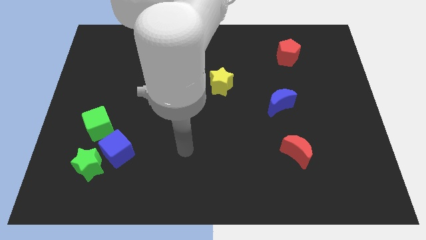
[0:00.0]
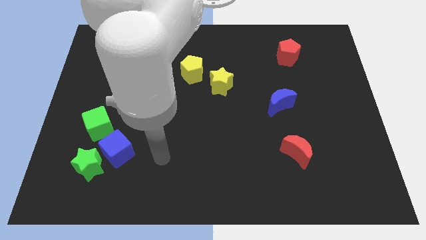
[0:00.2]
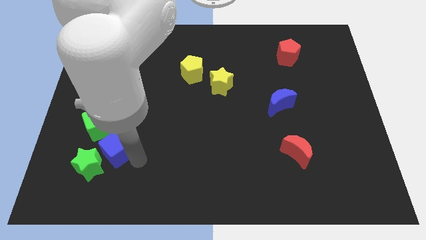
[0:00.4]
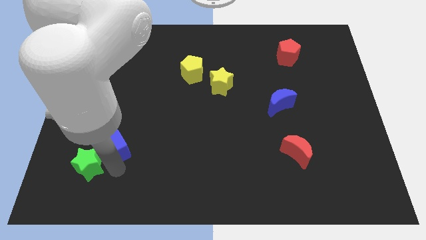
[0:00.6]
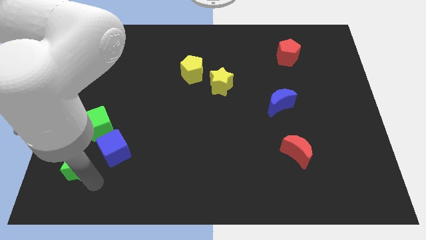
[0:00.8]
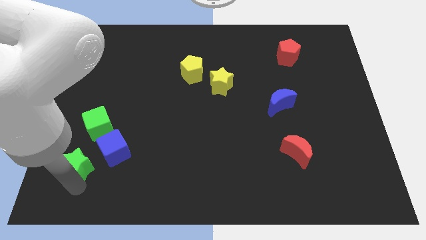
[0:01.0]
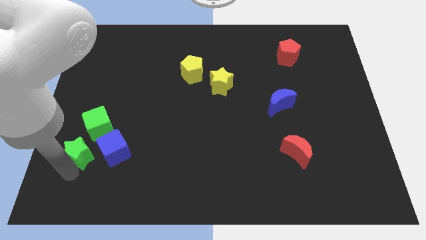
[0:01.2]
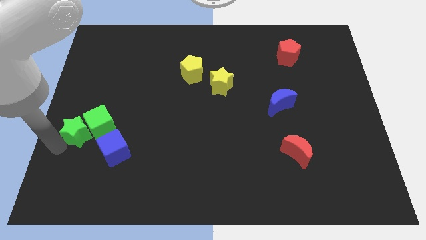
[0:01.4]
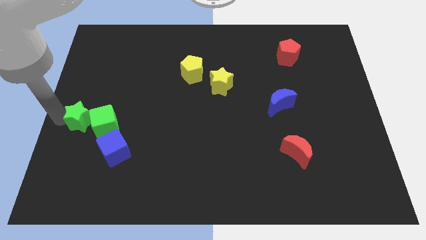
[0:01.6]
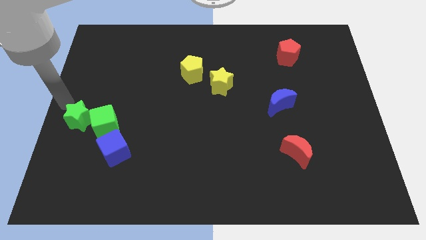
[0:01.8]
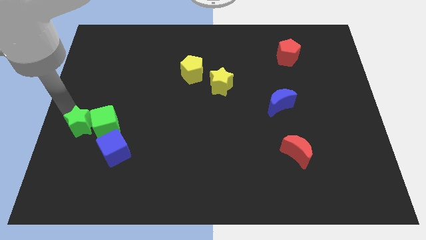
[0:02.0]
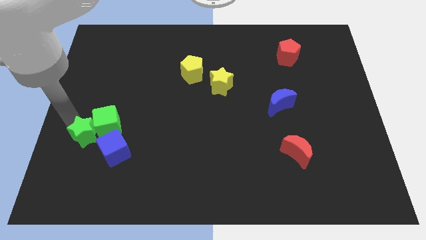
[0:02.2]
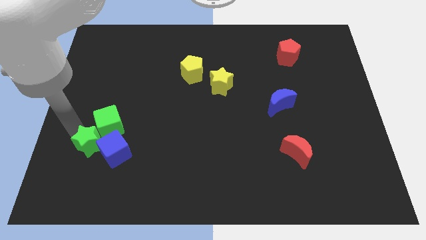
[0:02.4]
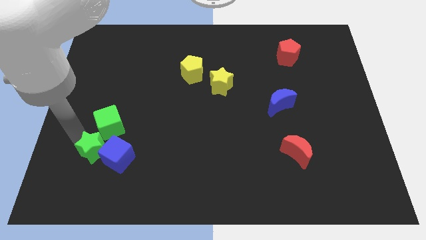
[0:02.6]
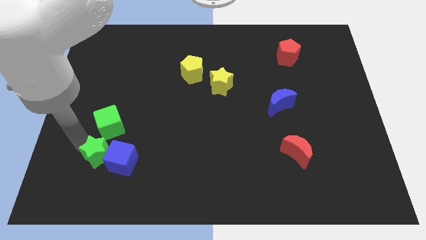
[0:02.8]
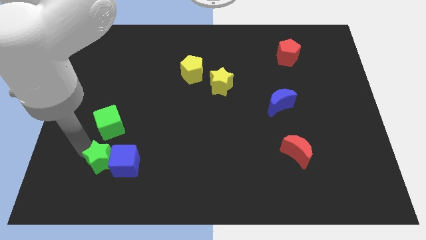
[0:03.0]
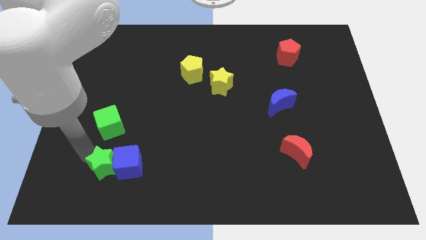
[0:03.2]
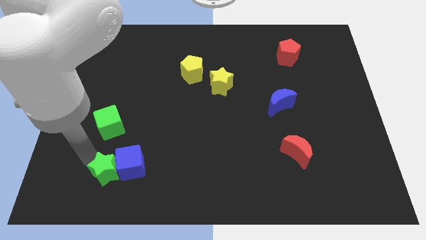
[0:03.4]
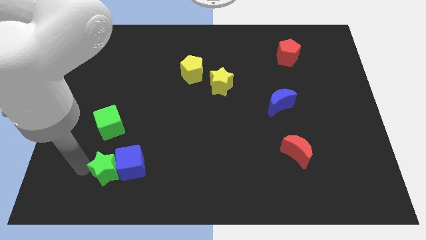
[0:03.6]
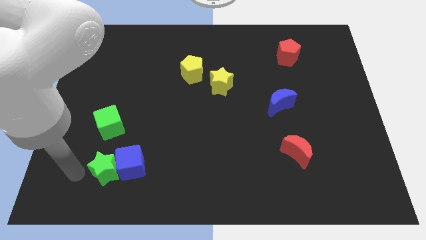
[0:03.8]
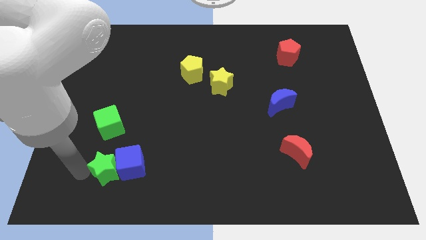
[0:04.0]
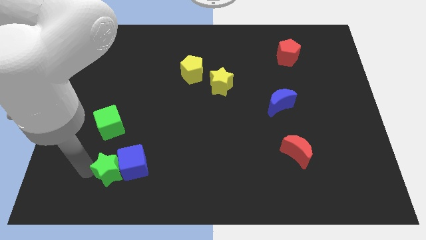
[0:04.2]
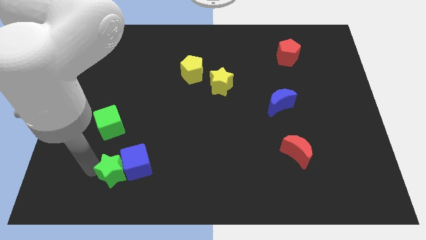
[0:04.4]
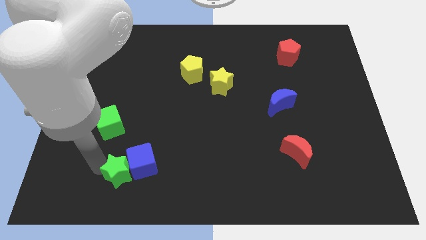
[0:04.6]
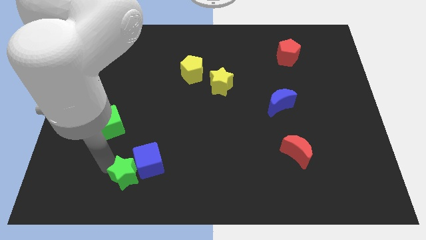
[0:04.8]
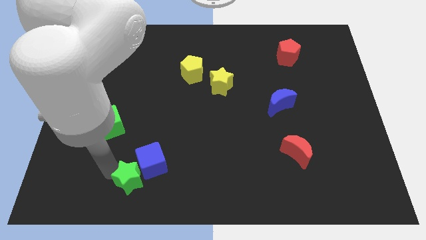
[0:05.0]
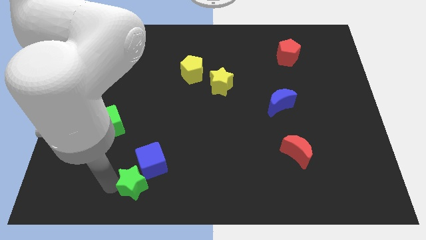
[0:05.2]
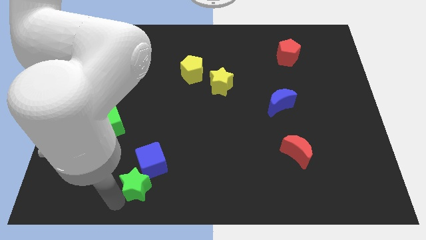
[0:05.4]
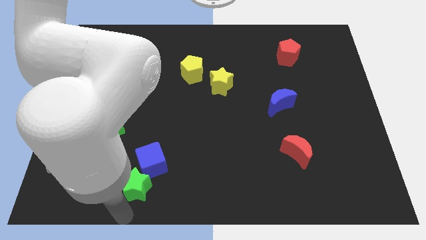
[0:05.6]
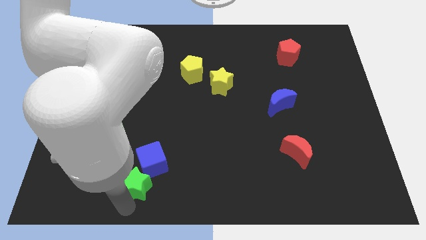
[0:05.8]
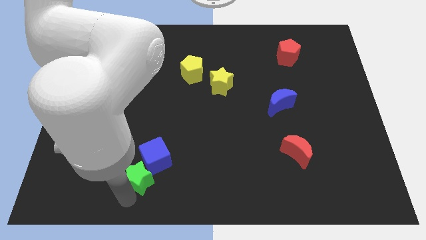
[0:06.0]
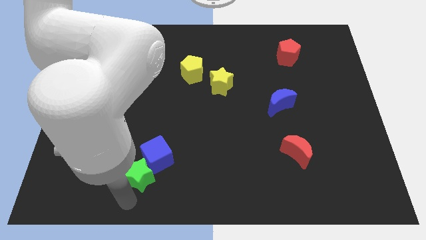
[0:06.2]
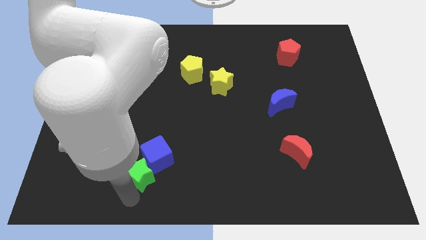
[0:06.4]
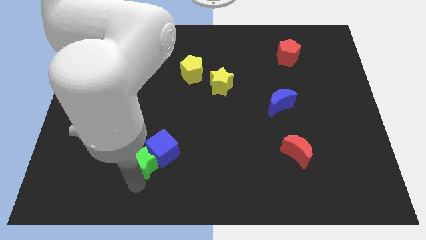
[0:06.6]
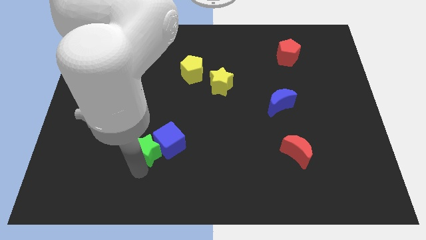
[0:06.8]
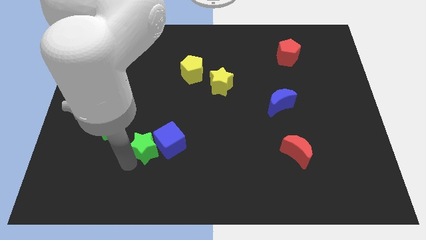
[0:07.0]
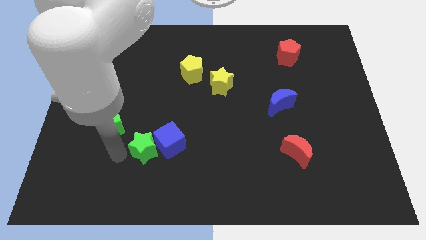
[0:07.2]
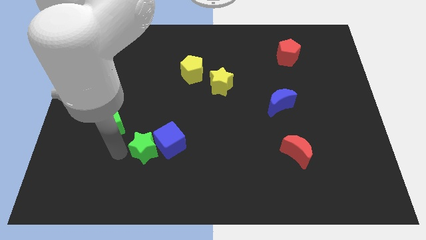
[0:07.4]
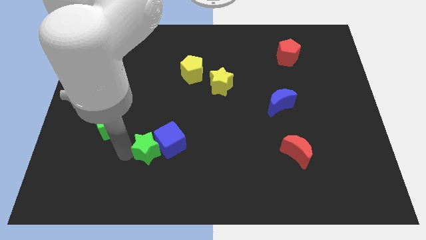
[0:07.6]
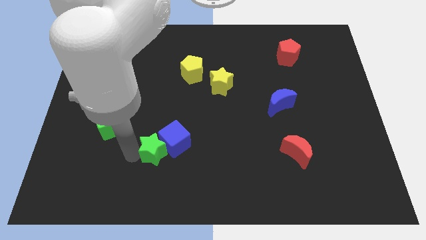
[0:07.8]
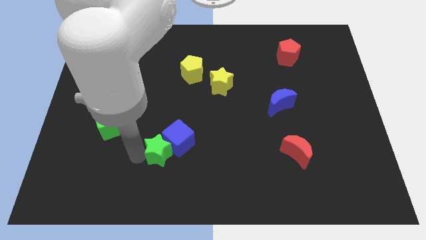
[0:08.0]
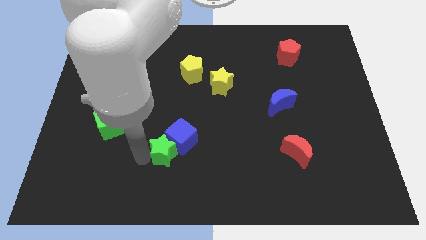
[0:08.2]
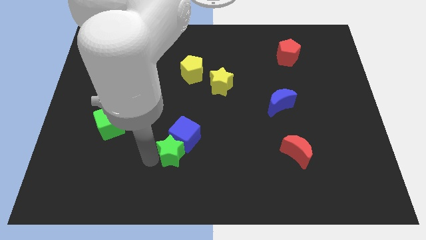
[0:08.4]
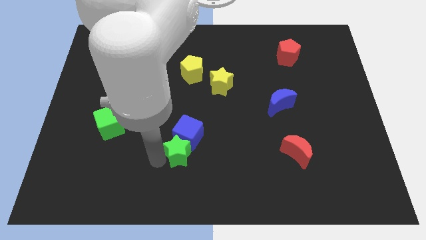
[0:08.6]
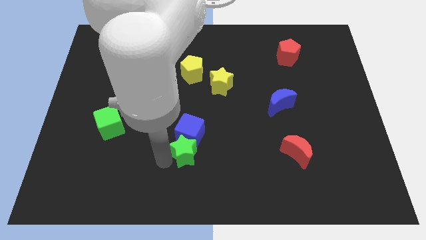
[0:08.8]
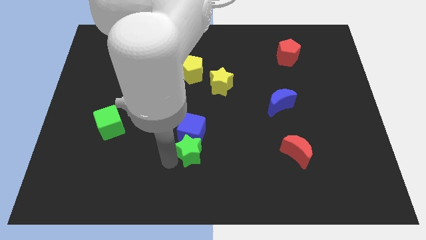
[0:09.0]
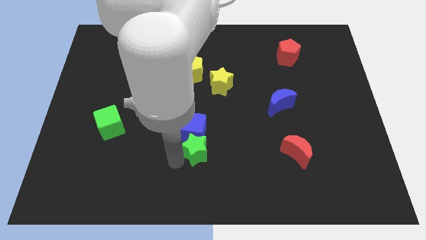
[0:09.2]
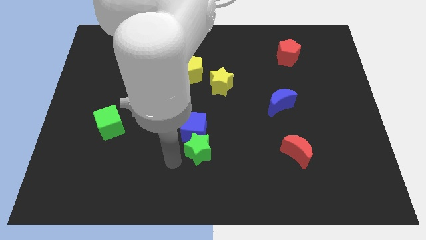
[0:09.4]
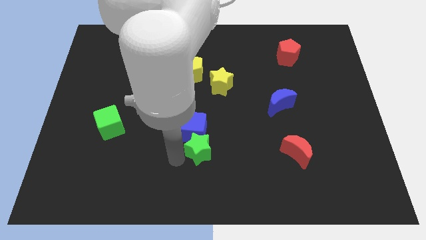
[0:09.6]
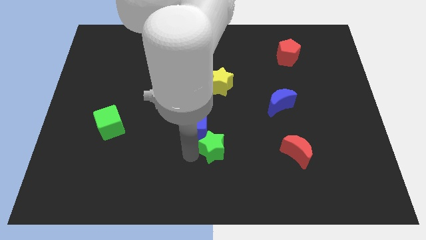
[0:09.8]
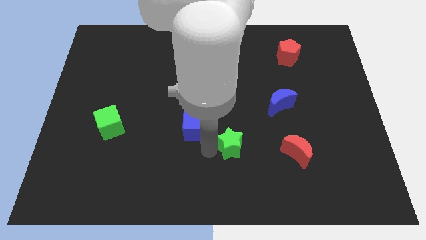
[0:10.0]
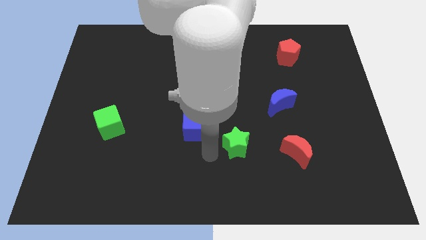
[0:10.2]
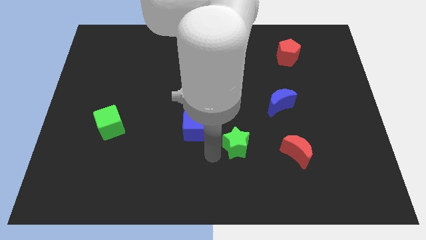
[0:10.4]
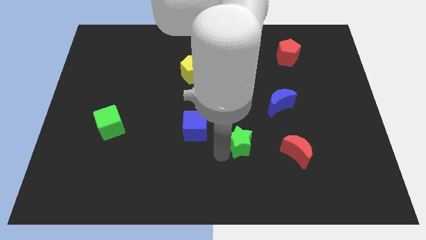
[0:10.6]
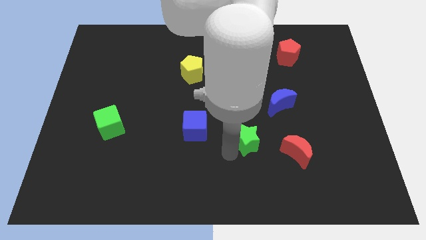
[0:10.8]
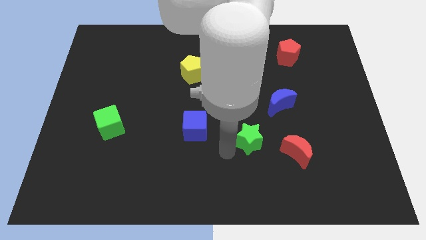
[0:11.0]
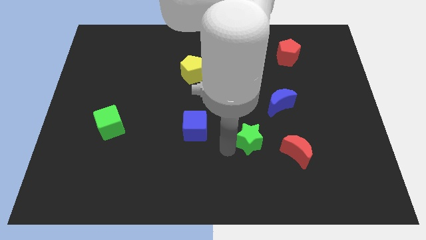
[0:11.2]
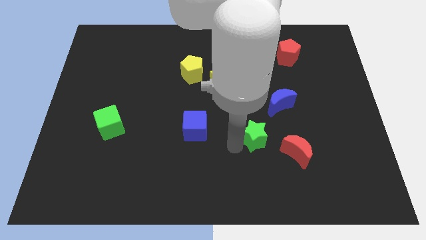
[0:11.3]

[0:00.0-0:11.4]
put the green star to the top left of the red moon

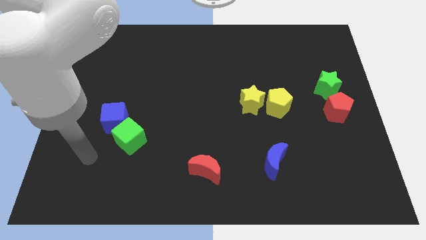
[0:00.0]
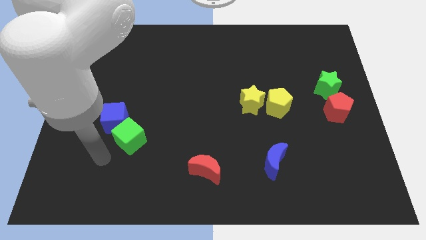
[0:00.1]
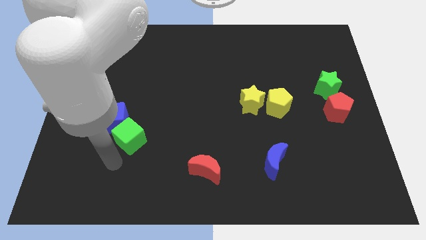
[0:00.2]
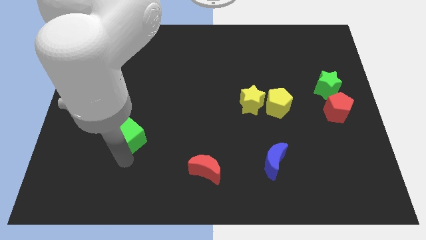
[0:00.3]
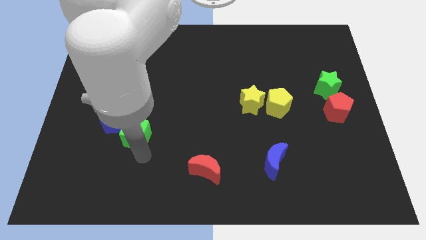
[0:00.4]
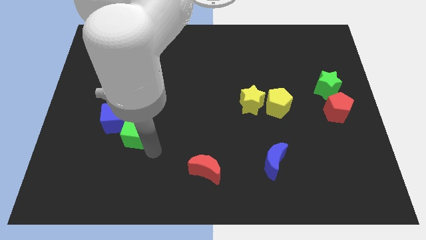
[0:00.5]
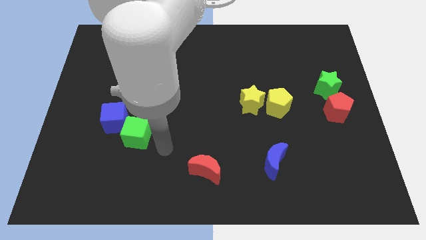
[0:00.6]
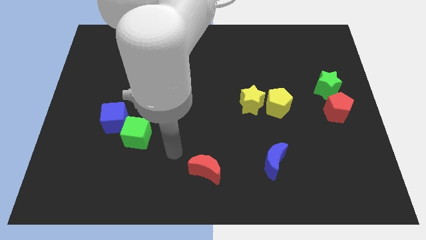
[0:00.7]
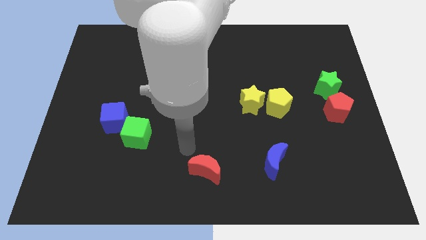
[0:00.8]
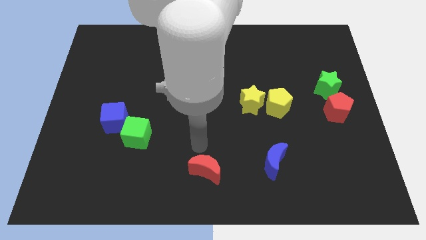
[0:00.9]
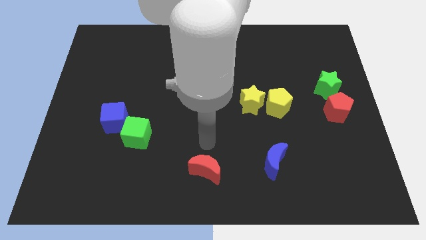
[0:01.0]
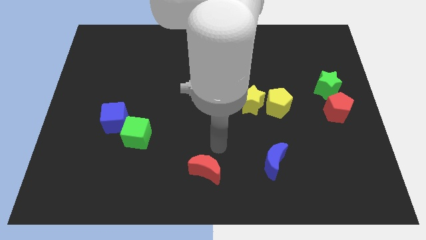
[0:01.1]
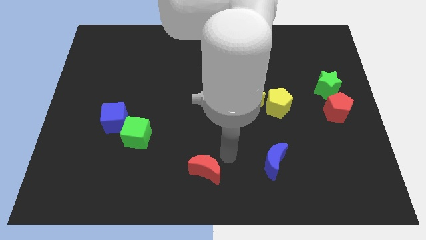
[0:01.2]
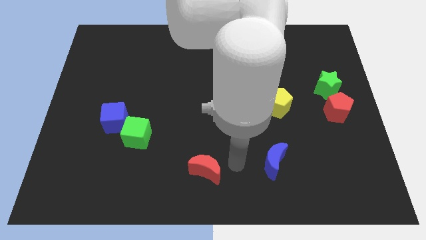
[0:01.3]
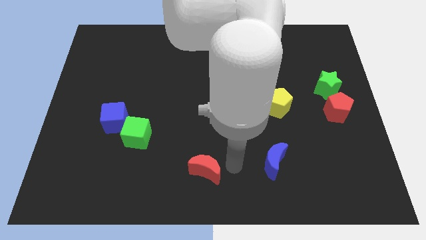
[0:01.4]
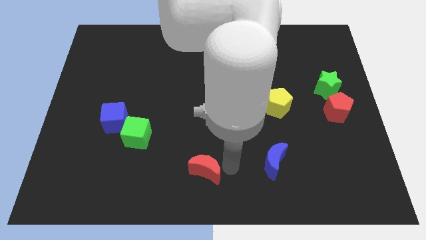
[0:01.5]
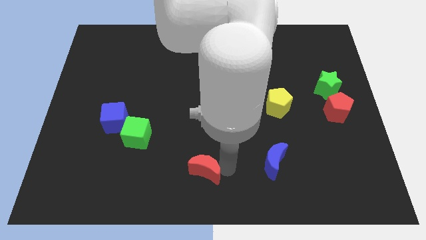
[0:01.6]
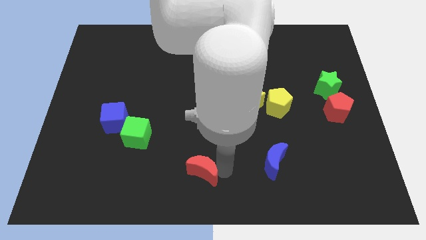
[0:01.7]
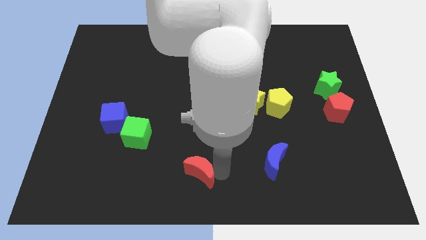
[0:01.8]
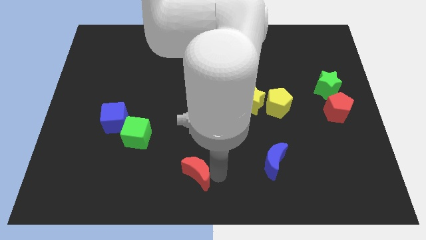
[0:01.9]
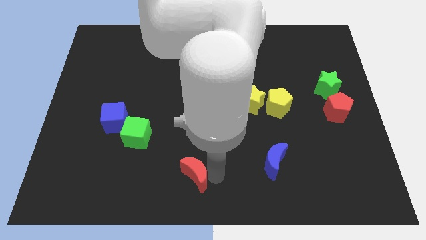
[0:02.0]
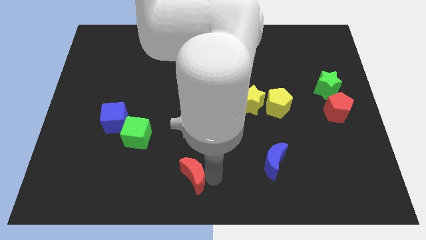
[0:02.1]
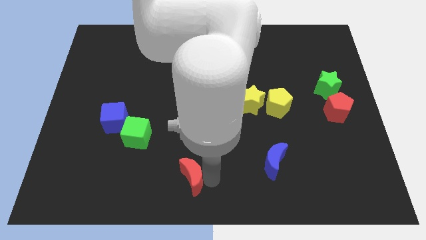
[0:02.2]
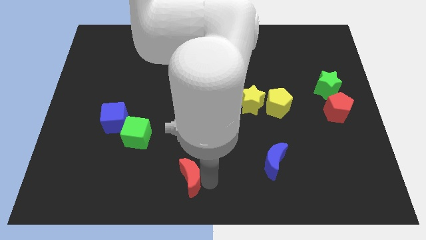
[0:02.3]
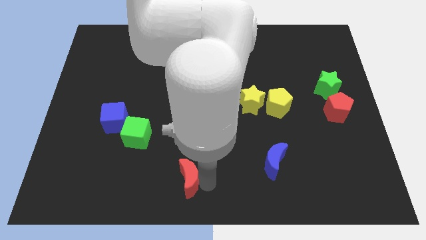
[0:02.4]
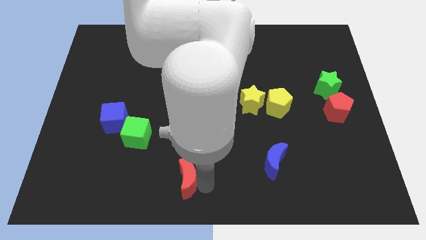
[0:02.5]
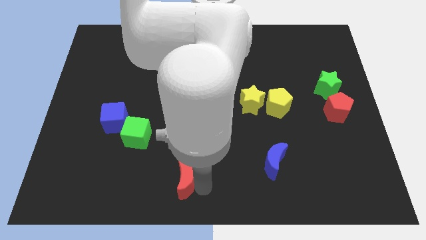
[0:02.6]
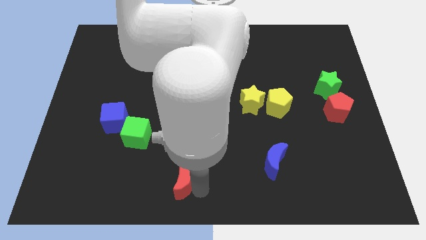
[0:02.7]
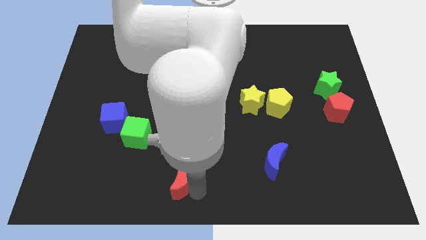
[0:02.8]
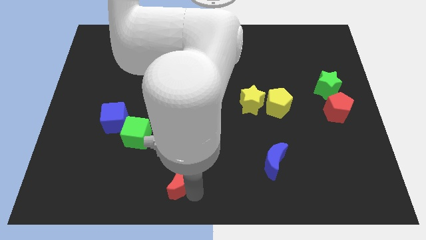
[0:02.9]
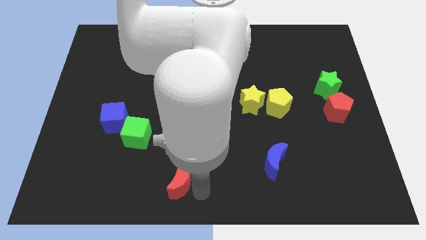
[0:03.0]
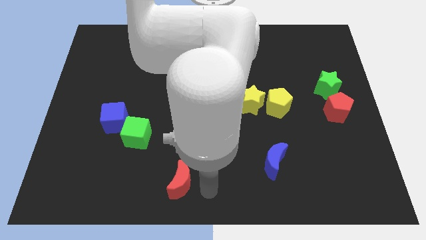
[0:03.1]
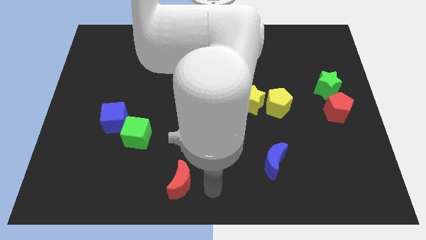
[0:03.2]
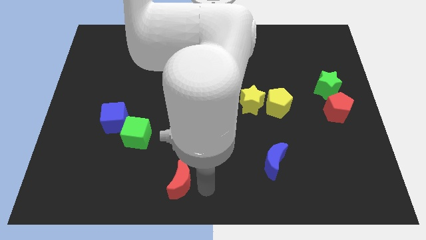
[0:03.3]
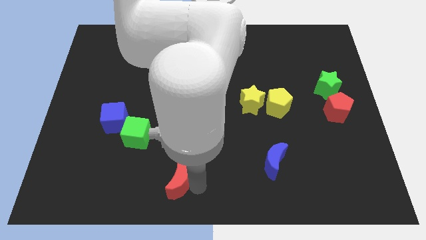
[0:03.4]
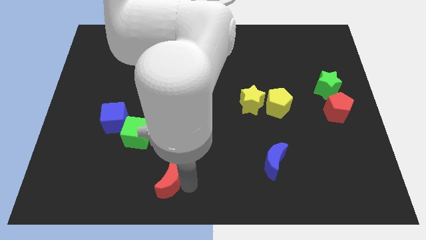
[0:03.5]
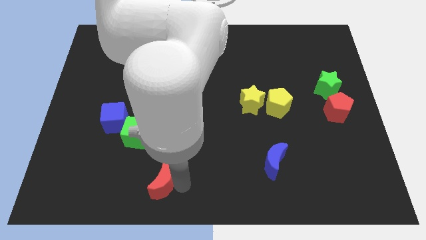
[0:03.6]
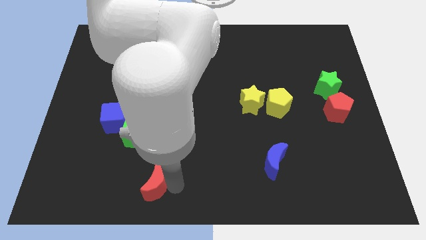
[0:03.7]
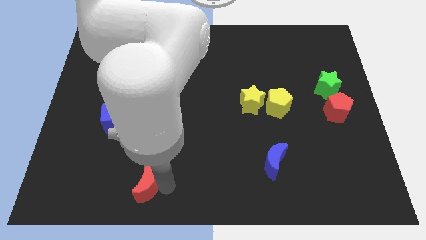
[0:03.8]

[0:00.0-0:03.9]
push the red moon to the bottom side of the green cube
